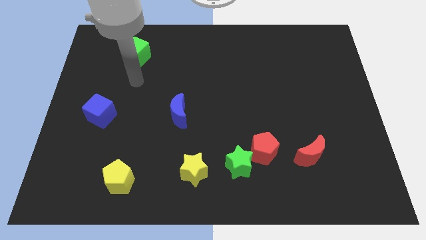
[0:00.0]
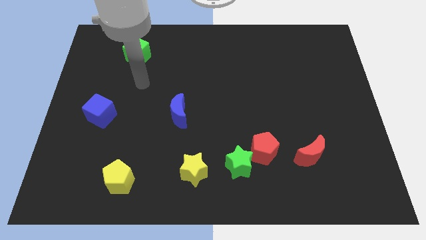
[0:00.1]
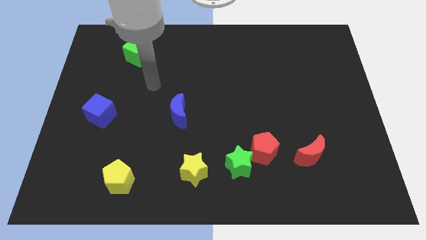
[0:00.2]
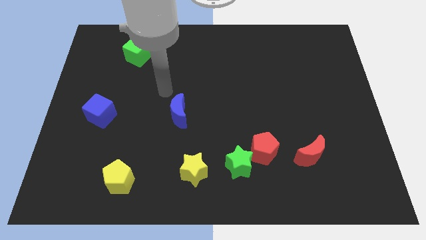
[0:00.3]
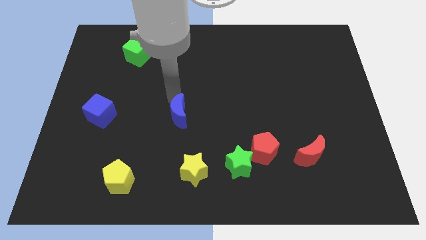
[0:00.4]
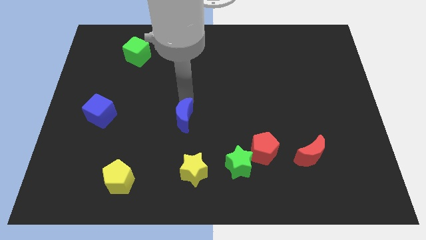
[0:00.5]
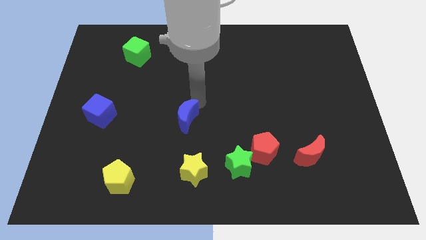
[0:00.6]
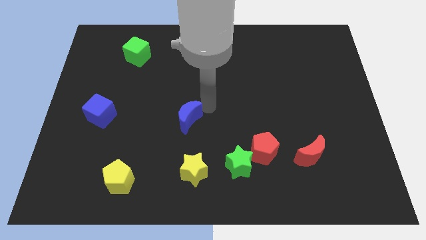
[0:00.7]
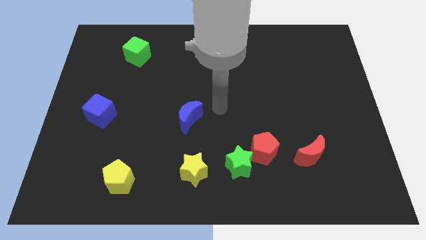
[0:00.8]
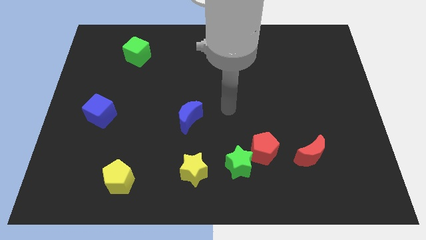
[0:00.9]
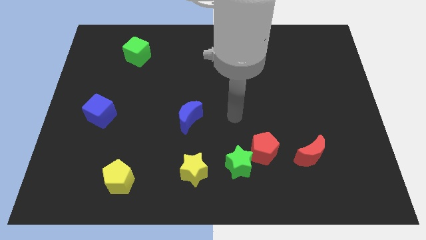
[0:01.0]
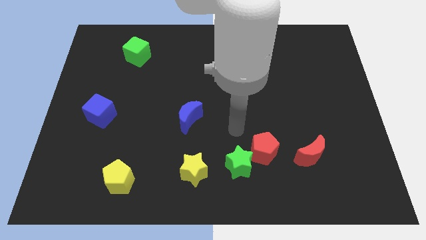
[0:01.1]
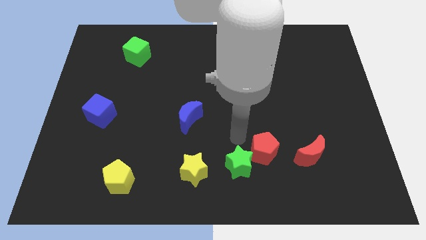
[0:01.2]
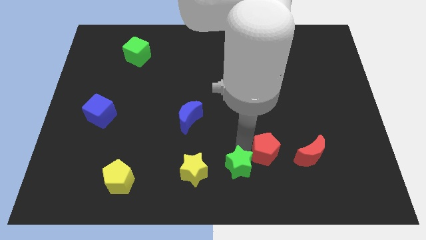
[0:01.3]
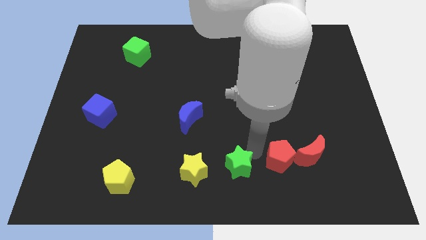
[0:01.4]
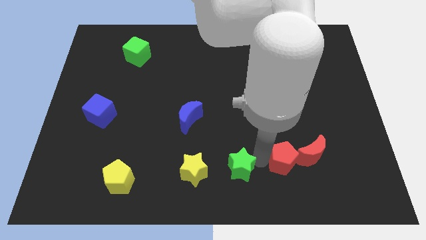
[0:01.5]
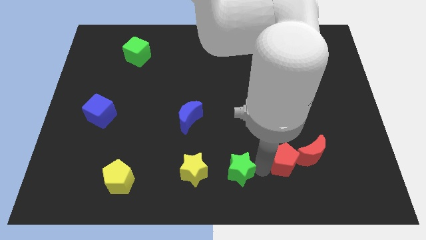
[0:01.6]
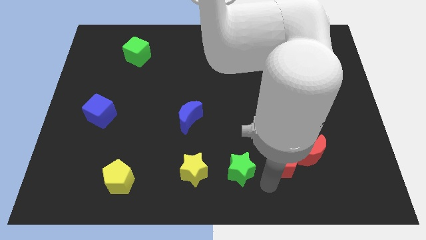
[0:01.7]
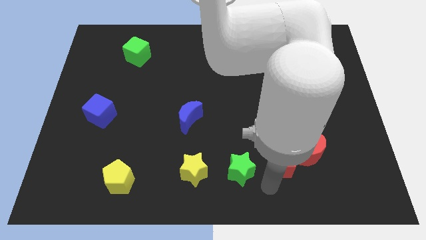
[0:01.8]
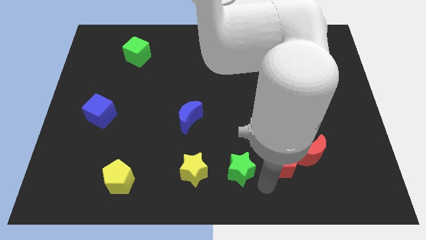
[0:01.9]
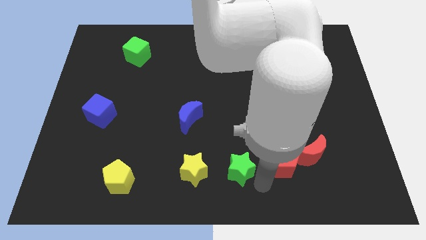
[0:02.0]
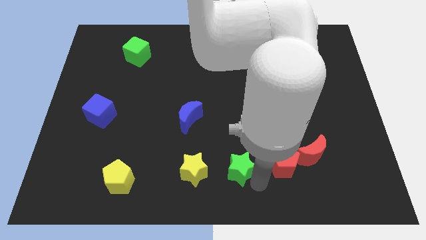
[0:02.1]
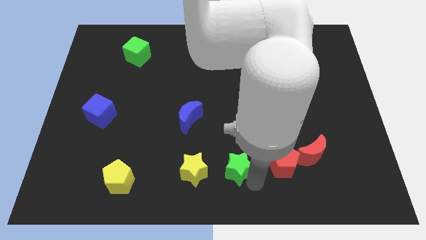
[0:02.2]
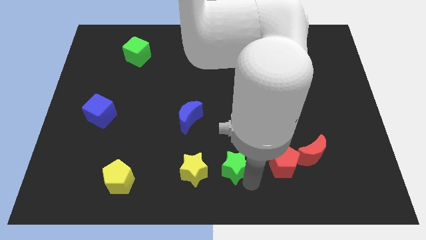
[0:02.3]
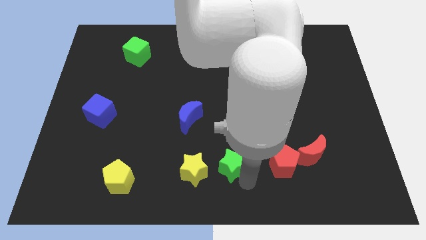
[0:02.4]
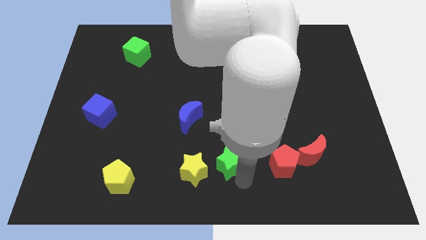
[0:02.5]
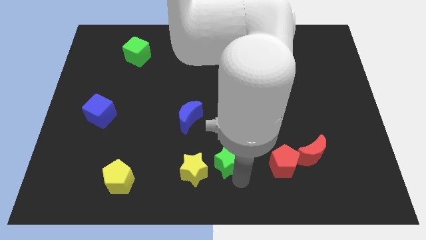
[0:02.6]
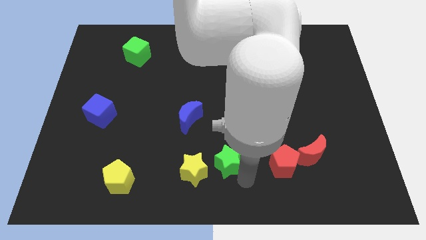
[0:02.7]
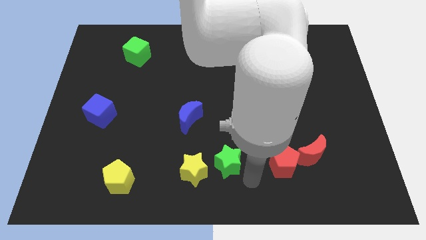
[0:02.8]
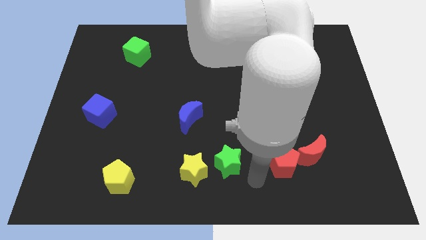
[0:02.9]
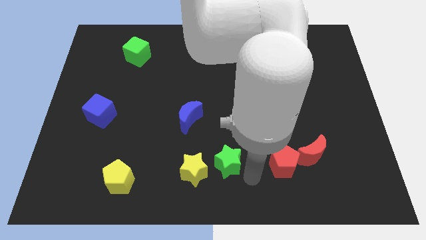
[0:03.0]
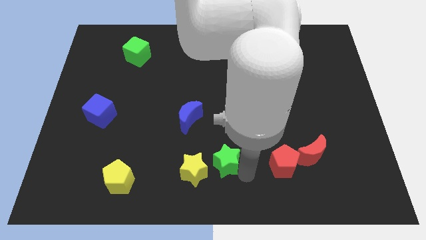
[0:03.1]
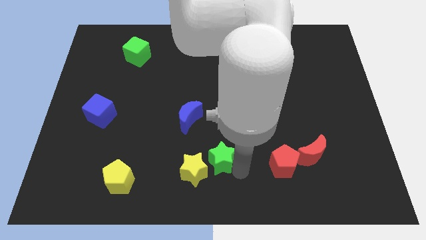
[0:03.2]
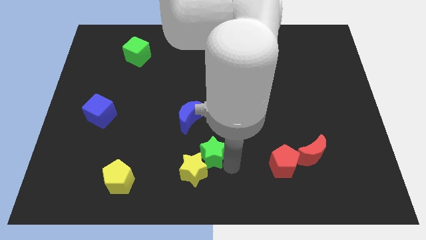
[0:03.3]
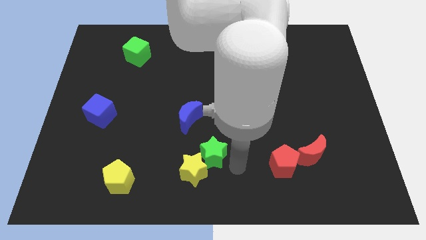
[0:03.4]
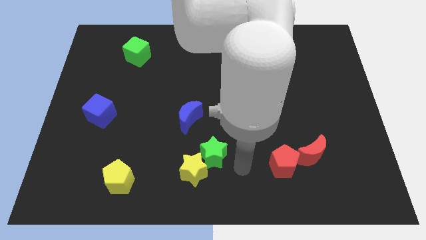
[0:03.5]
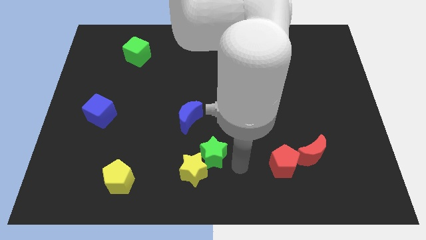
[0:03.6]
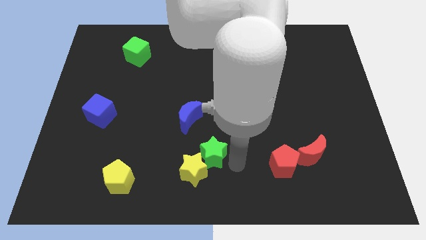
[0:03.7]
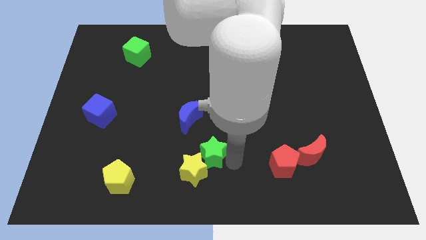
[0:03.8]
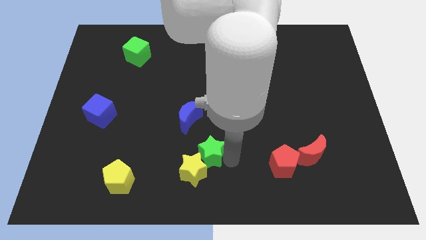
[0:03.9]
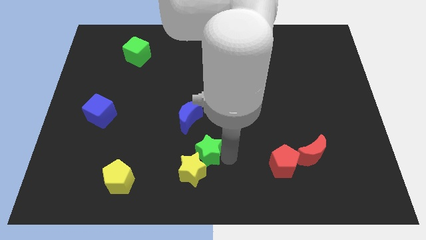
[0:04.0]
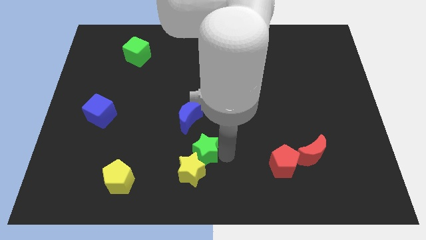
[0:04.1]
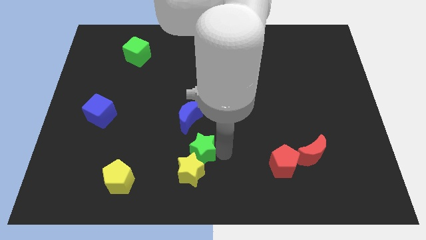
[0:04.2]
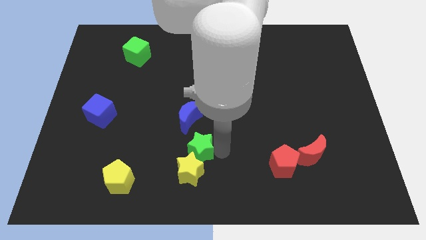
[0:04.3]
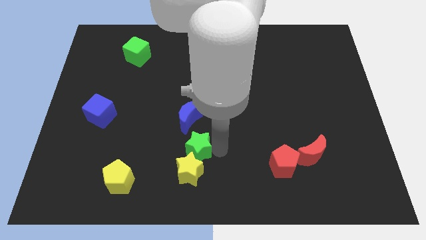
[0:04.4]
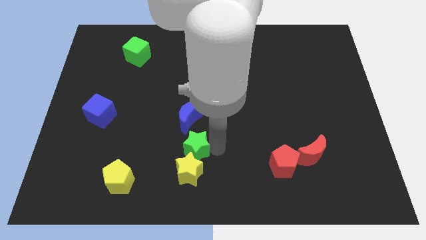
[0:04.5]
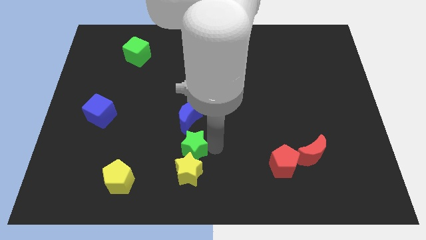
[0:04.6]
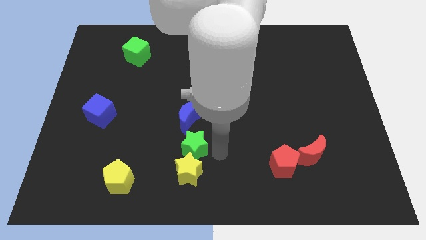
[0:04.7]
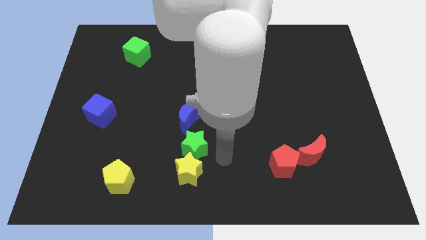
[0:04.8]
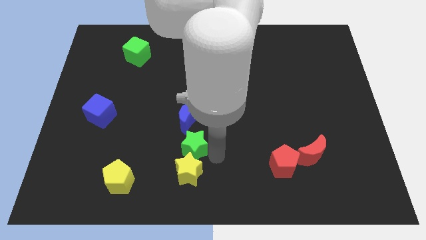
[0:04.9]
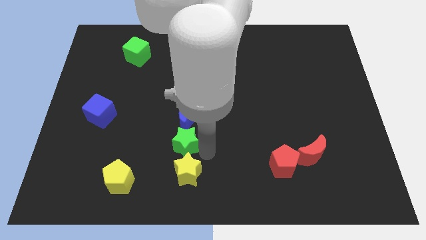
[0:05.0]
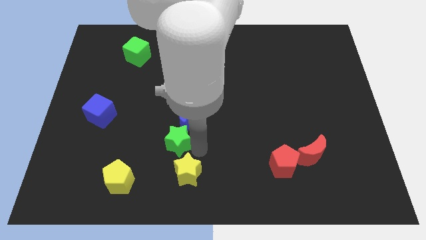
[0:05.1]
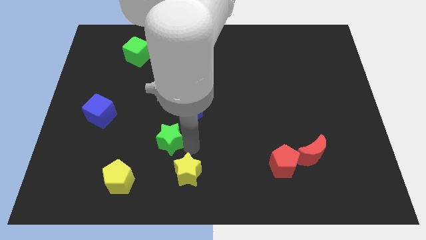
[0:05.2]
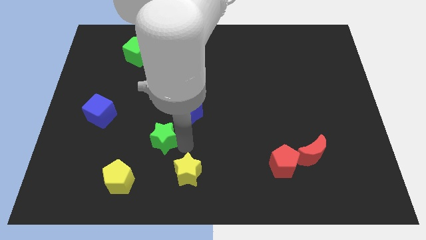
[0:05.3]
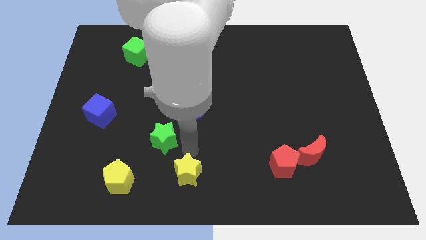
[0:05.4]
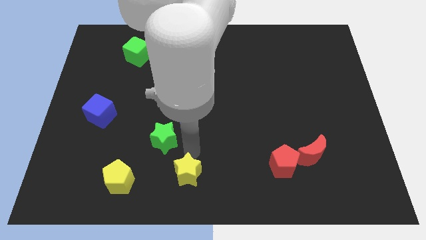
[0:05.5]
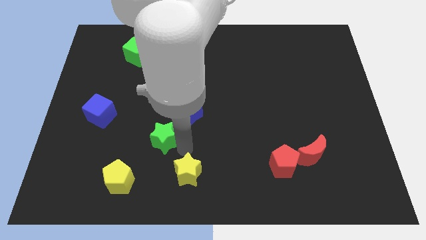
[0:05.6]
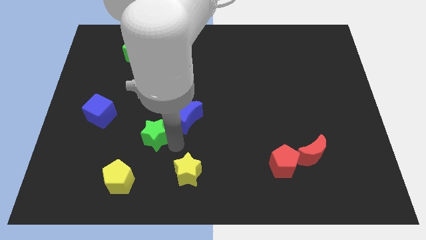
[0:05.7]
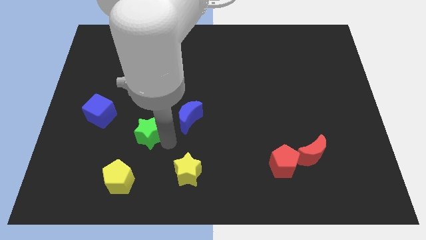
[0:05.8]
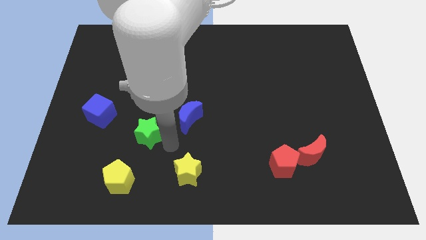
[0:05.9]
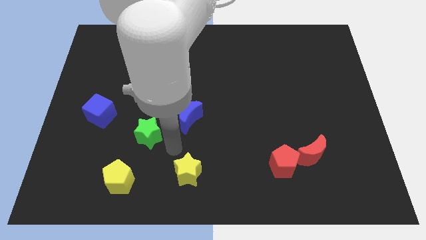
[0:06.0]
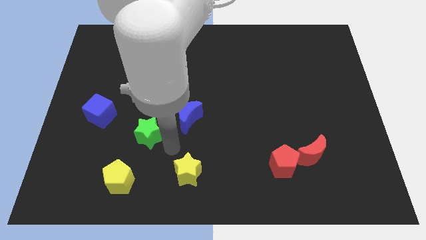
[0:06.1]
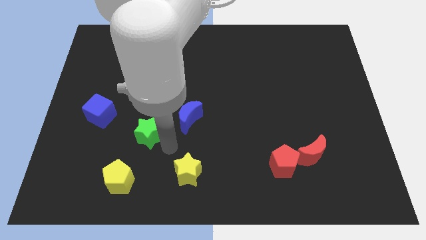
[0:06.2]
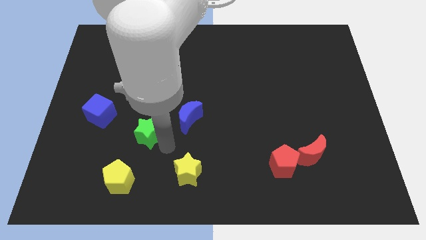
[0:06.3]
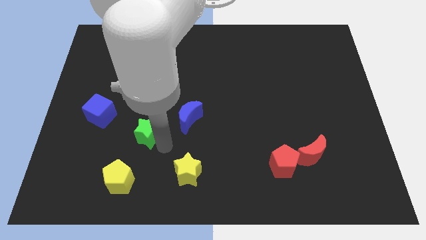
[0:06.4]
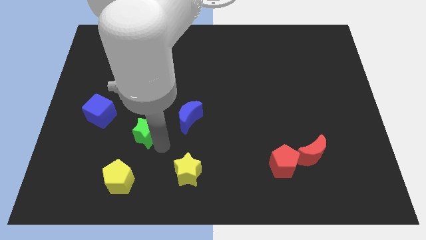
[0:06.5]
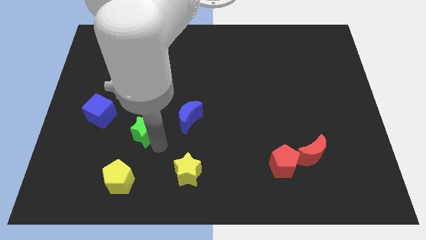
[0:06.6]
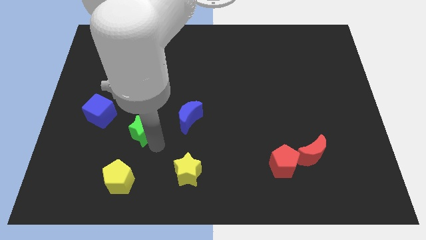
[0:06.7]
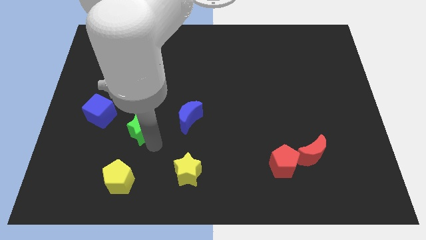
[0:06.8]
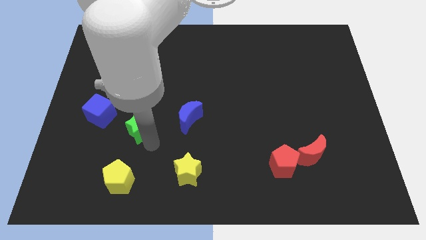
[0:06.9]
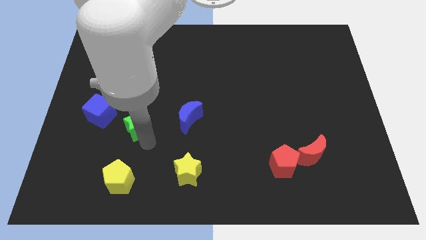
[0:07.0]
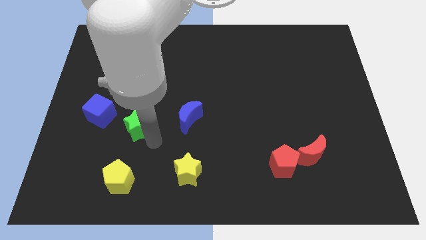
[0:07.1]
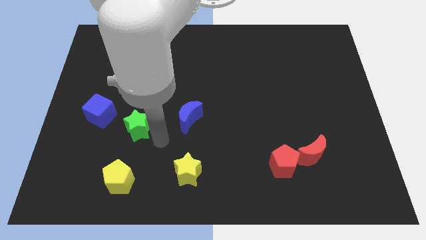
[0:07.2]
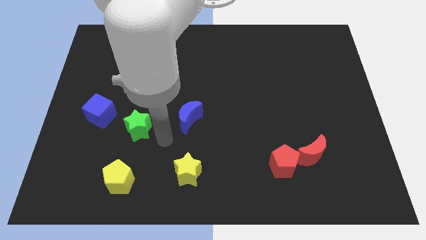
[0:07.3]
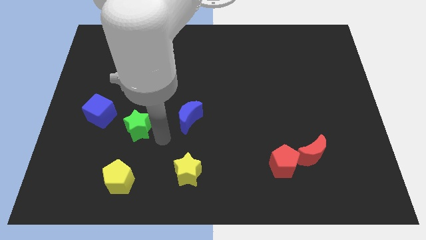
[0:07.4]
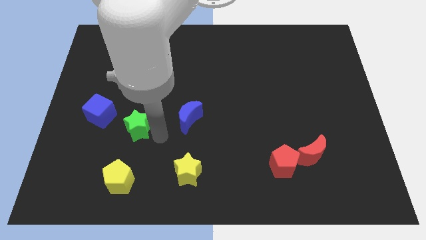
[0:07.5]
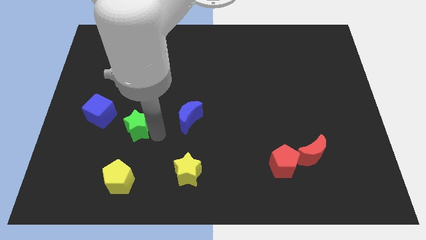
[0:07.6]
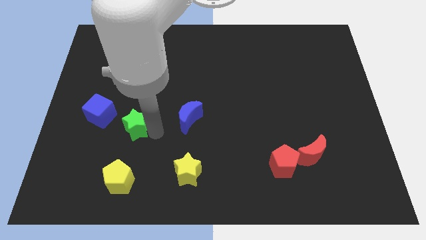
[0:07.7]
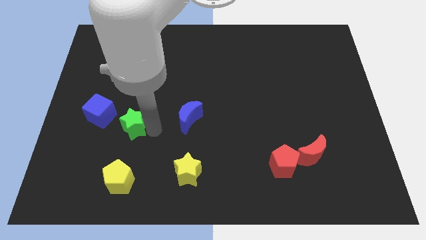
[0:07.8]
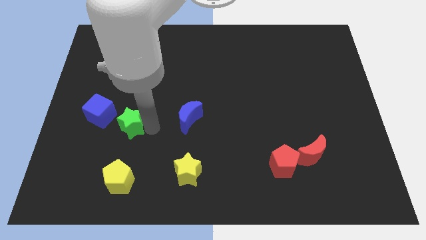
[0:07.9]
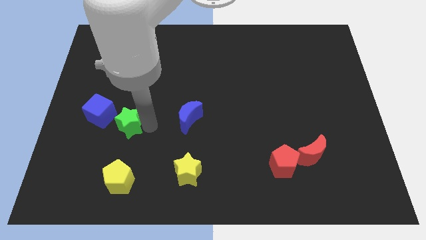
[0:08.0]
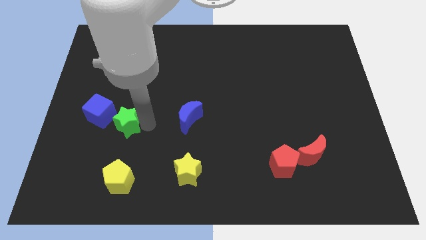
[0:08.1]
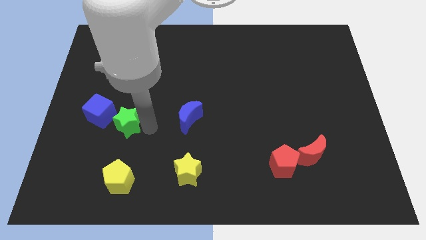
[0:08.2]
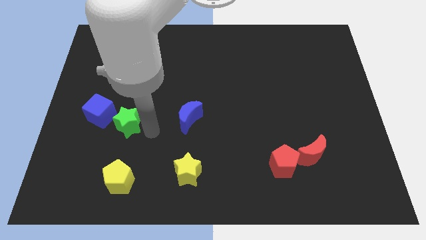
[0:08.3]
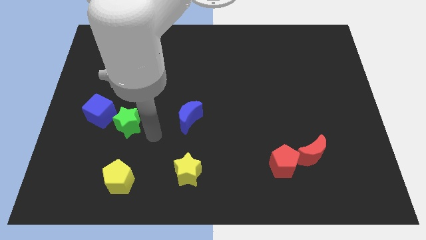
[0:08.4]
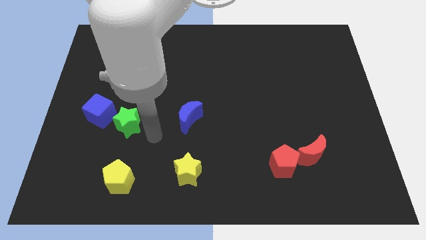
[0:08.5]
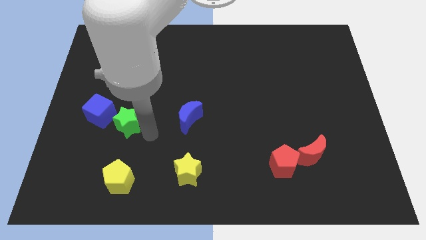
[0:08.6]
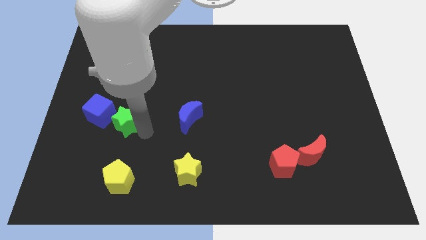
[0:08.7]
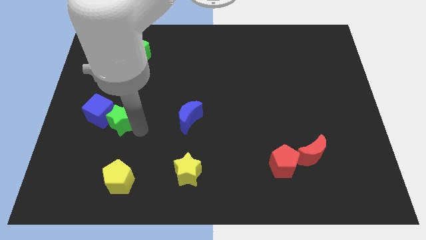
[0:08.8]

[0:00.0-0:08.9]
move the green star next to the blue cube
